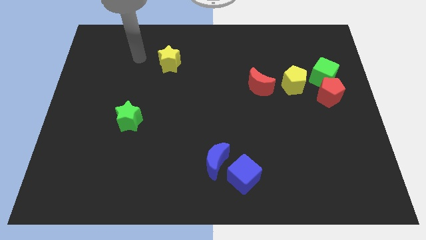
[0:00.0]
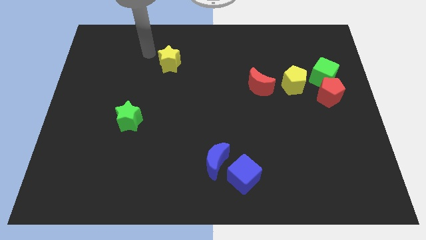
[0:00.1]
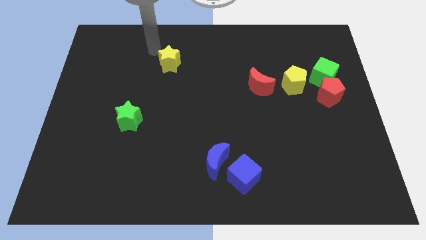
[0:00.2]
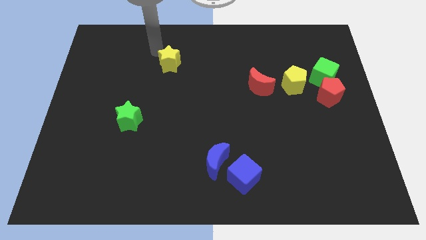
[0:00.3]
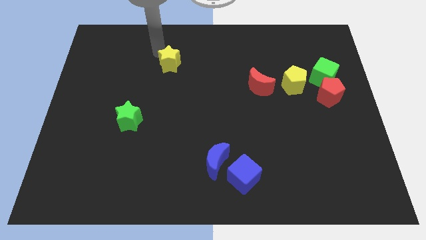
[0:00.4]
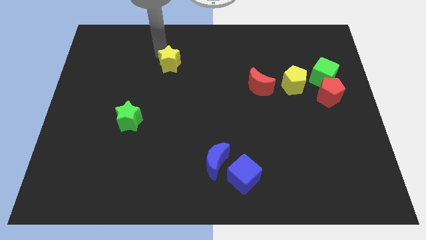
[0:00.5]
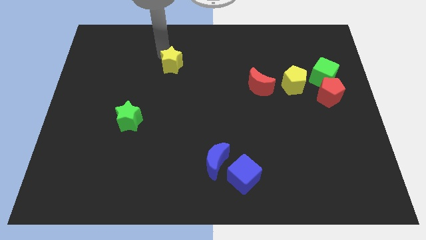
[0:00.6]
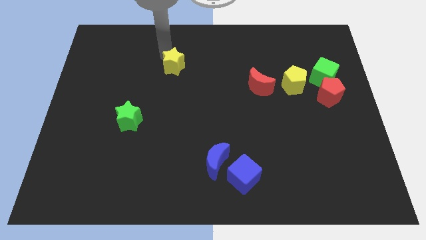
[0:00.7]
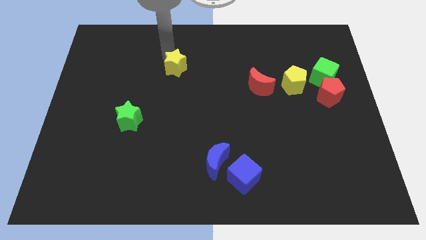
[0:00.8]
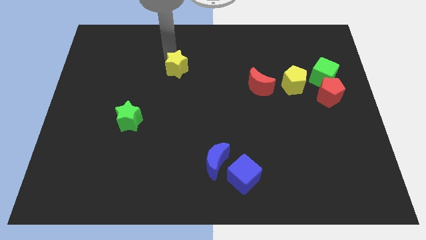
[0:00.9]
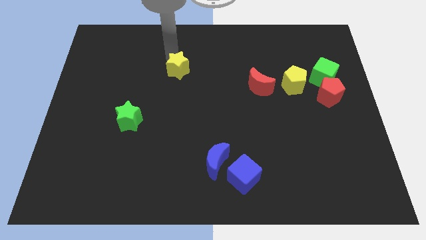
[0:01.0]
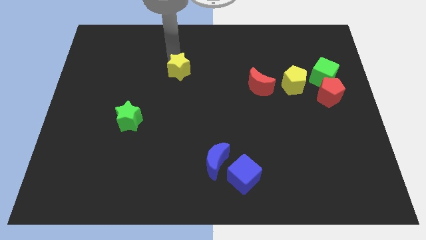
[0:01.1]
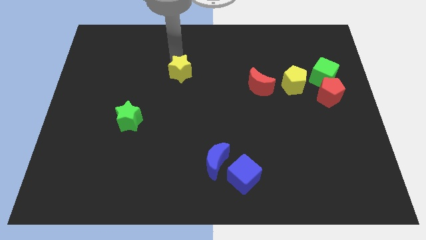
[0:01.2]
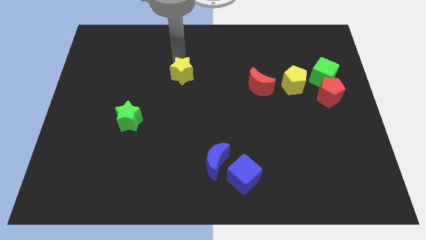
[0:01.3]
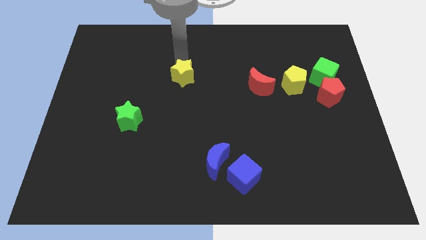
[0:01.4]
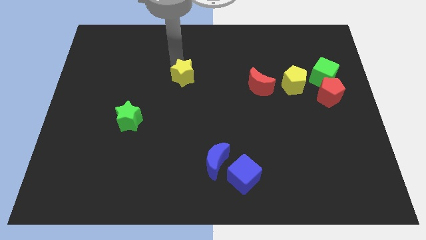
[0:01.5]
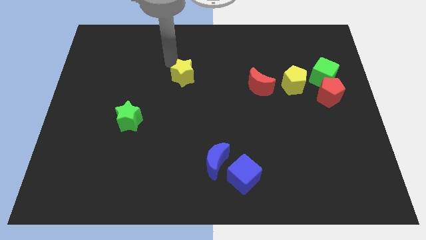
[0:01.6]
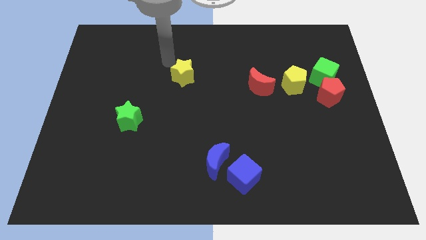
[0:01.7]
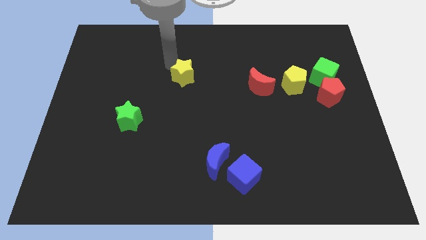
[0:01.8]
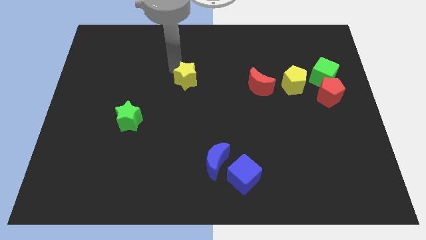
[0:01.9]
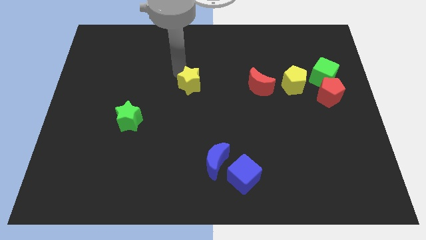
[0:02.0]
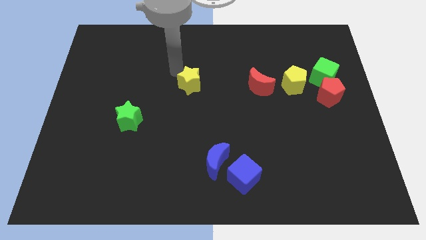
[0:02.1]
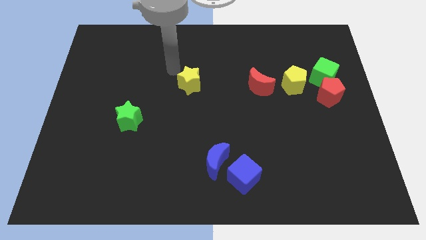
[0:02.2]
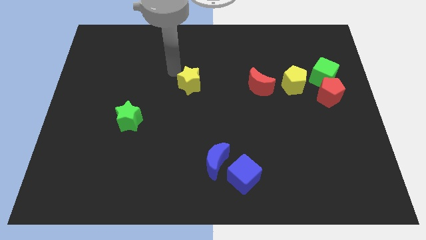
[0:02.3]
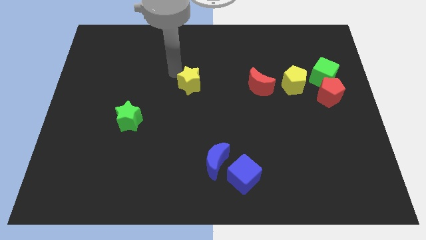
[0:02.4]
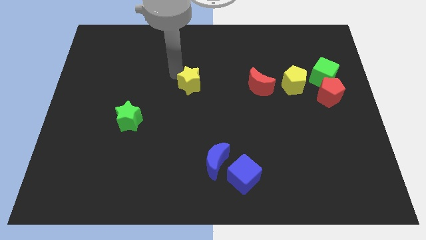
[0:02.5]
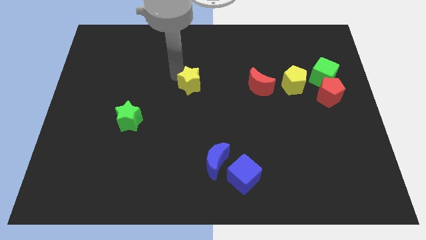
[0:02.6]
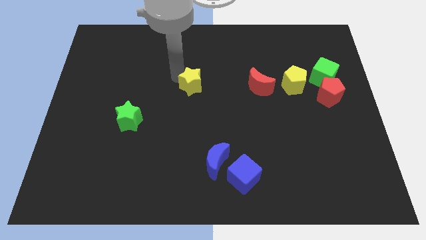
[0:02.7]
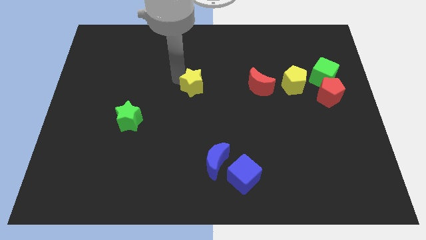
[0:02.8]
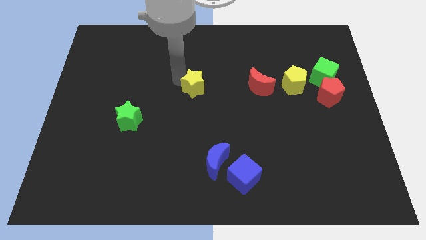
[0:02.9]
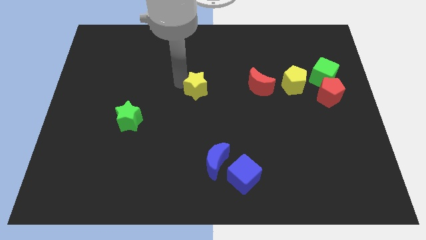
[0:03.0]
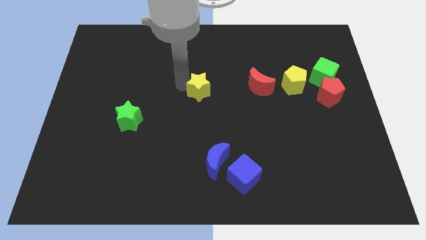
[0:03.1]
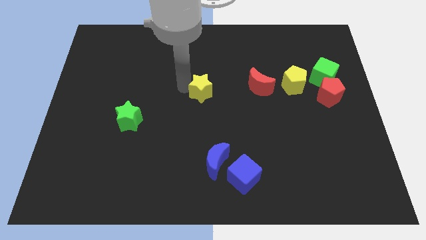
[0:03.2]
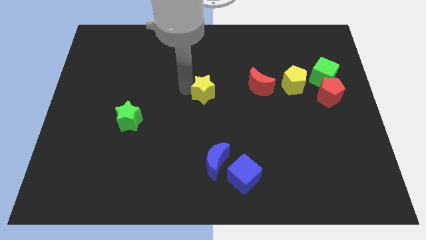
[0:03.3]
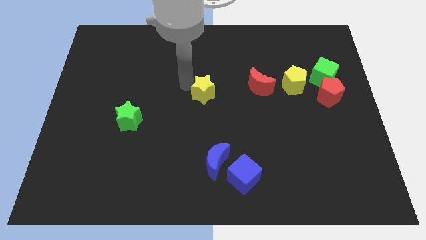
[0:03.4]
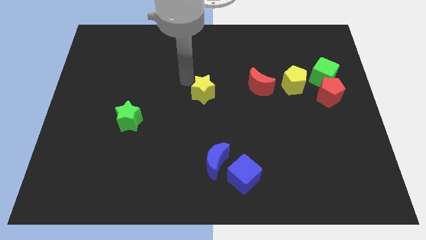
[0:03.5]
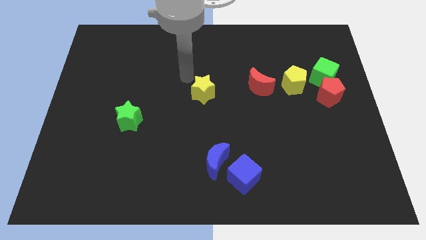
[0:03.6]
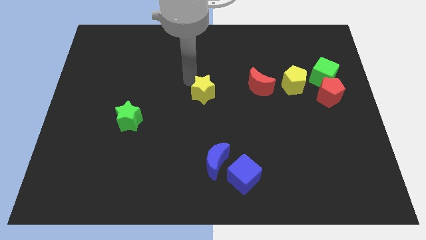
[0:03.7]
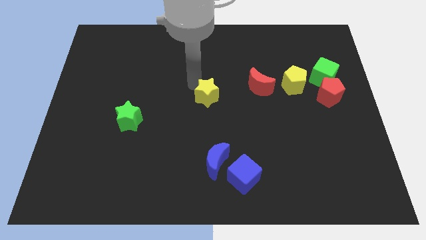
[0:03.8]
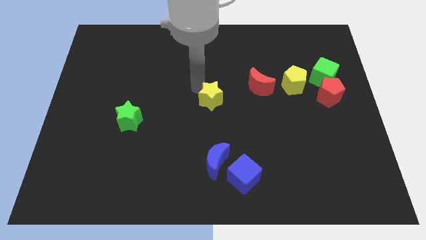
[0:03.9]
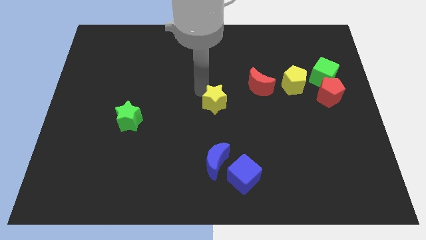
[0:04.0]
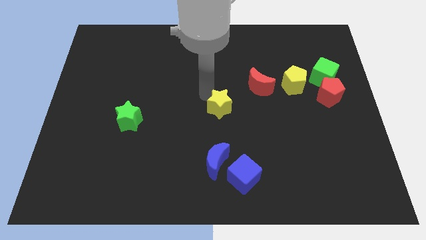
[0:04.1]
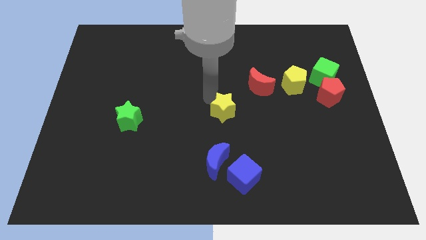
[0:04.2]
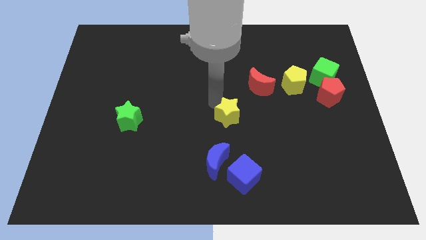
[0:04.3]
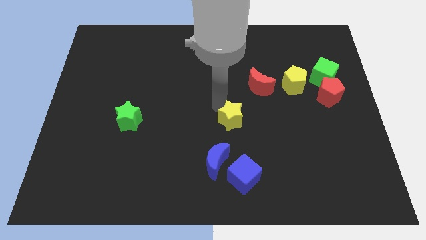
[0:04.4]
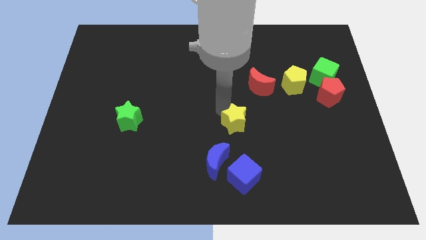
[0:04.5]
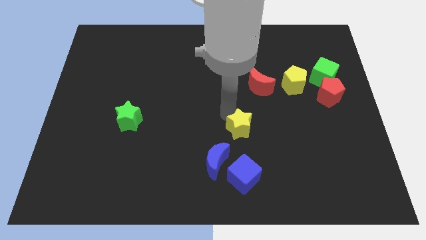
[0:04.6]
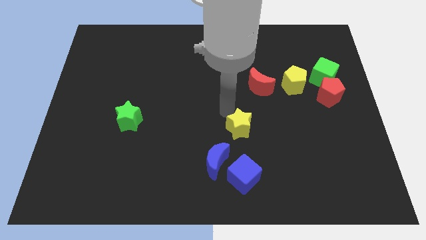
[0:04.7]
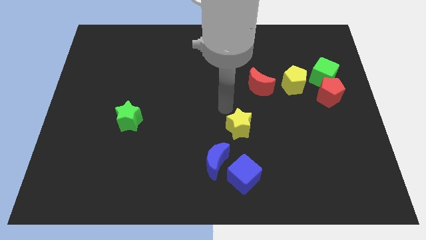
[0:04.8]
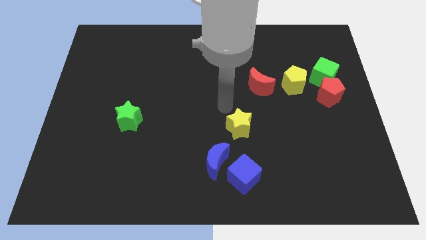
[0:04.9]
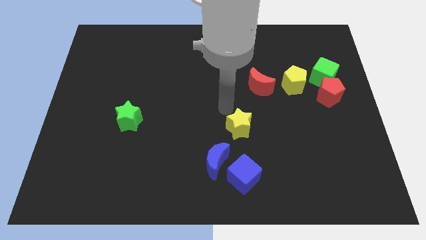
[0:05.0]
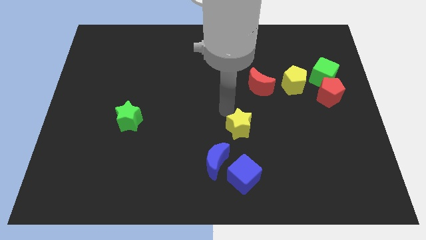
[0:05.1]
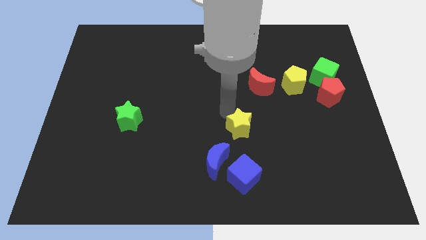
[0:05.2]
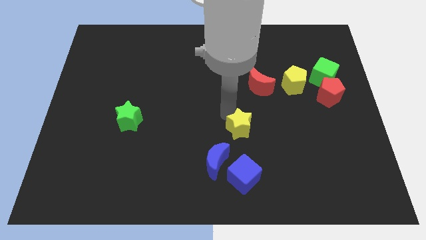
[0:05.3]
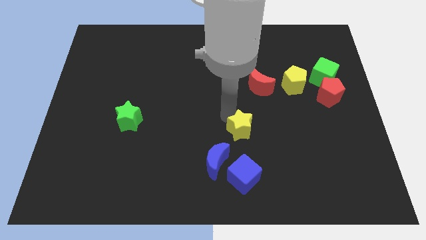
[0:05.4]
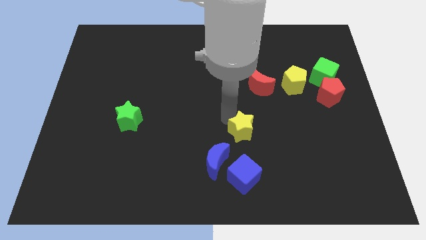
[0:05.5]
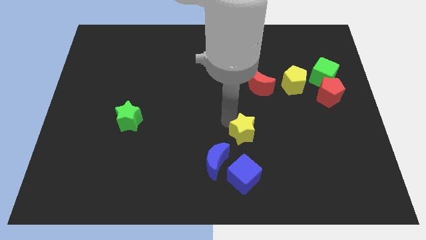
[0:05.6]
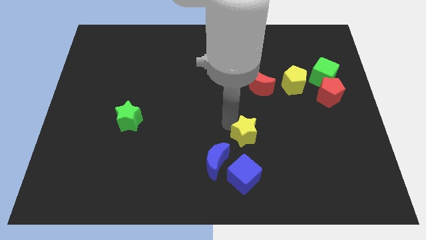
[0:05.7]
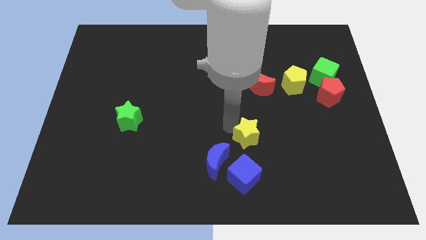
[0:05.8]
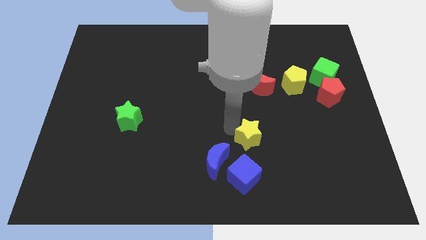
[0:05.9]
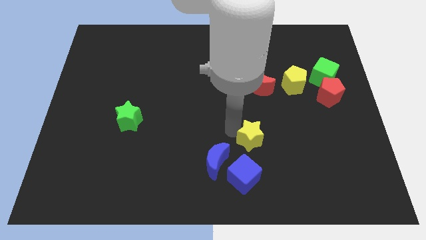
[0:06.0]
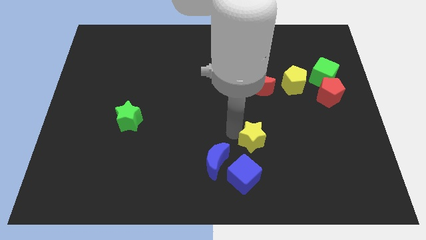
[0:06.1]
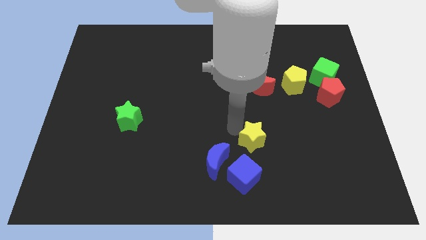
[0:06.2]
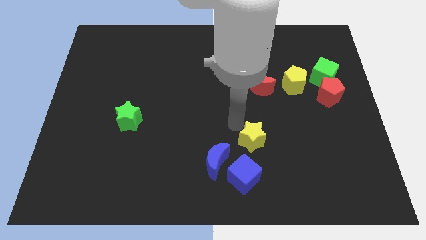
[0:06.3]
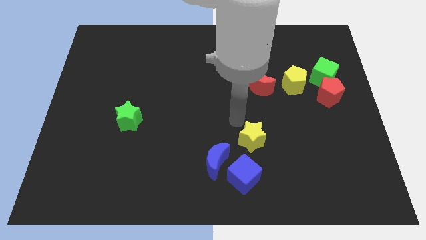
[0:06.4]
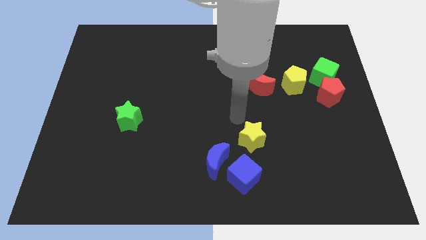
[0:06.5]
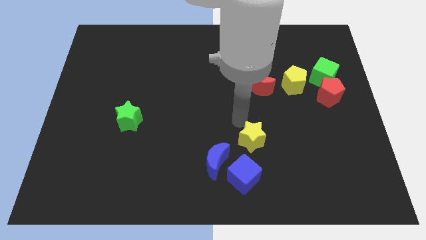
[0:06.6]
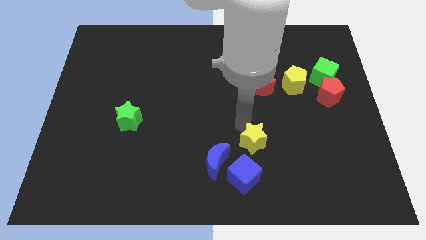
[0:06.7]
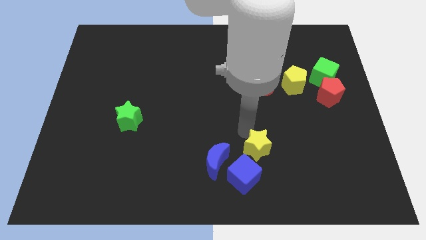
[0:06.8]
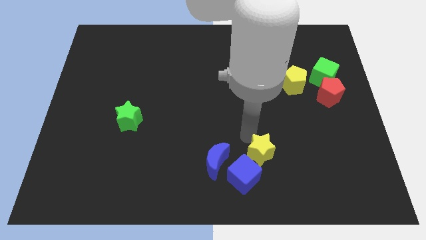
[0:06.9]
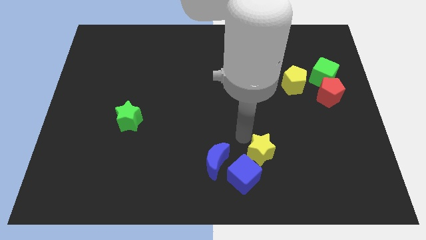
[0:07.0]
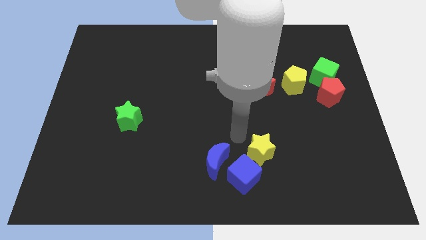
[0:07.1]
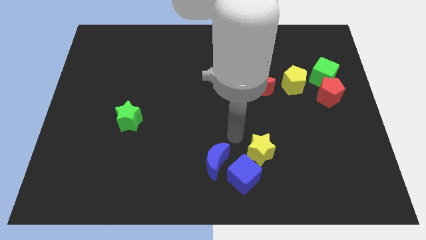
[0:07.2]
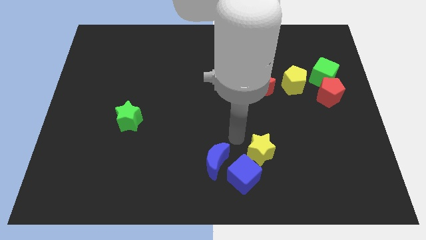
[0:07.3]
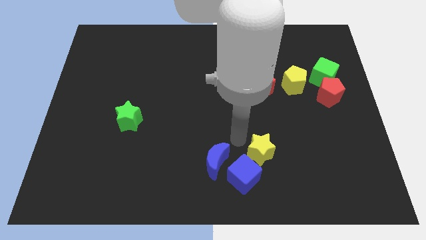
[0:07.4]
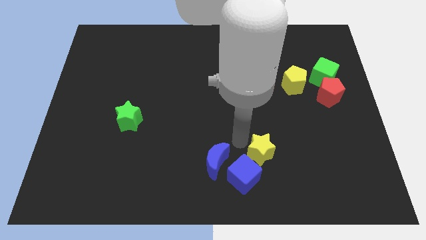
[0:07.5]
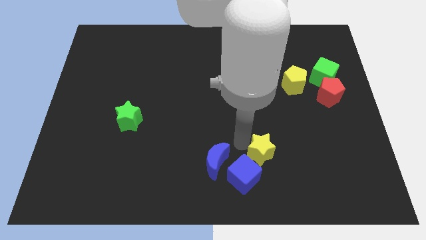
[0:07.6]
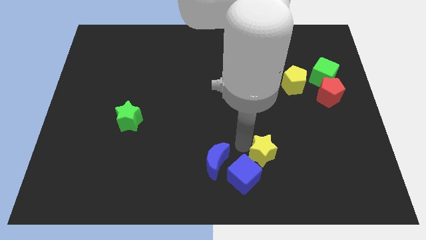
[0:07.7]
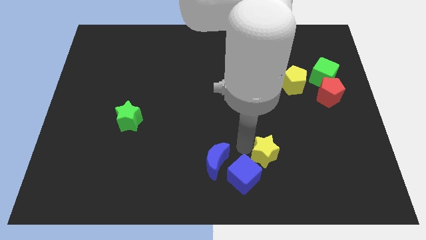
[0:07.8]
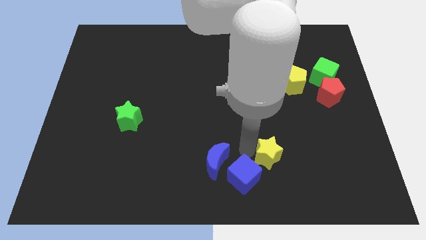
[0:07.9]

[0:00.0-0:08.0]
push the yellow star to the right of the blue cube
